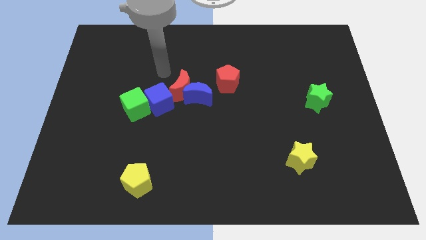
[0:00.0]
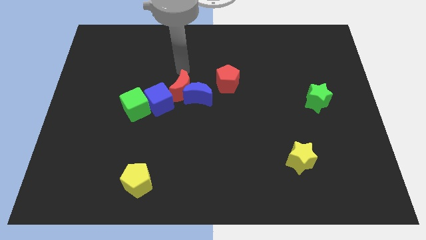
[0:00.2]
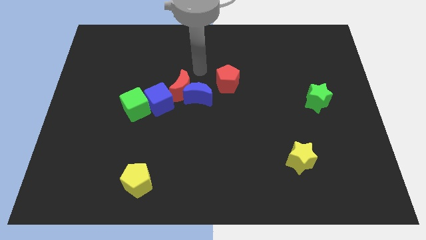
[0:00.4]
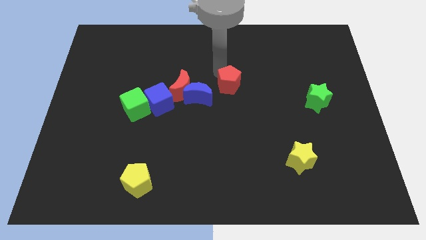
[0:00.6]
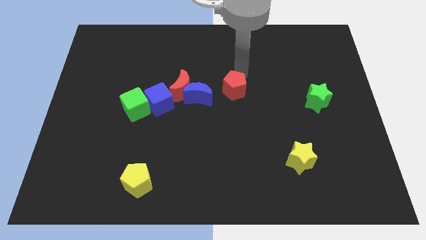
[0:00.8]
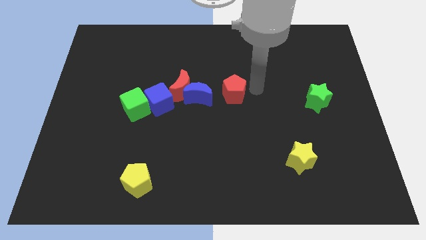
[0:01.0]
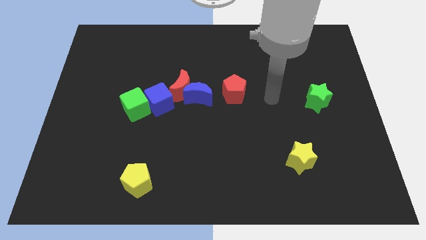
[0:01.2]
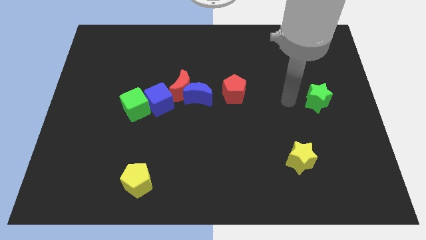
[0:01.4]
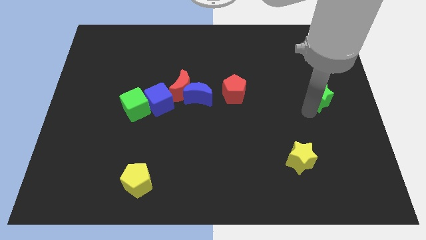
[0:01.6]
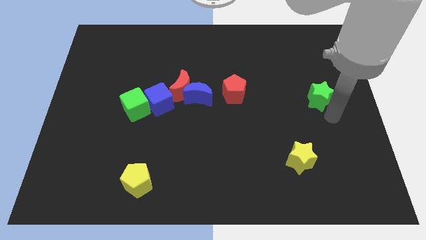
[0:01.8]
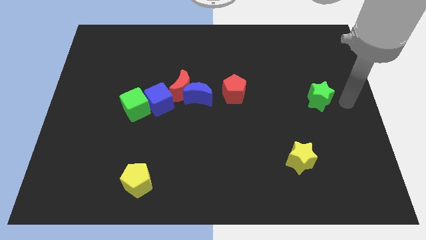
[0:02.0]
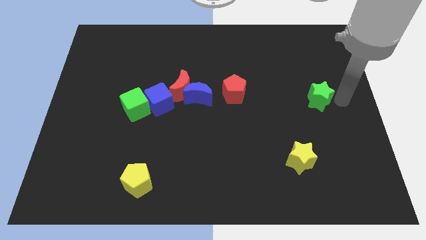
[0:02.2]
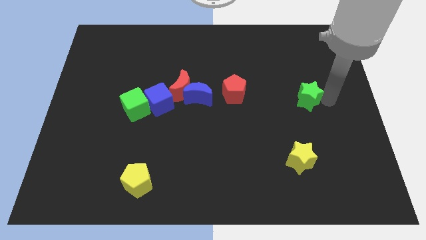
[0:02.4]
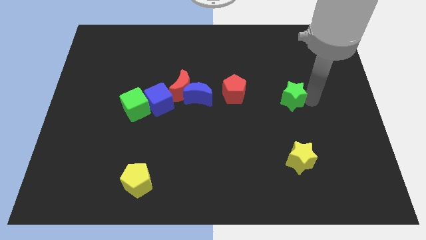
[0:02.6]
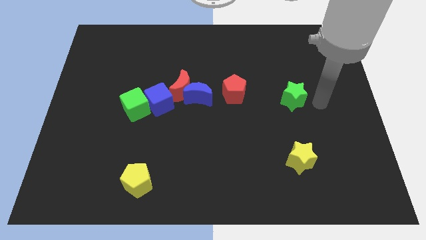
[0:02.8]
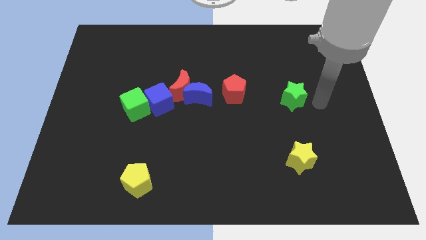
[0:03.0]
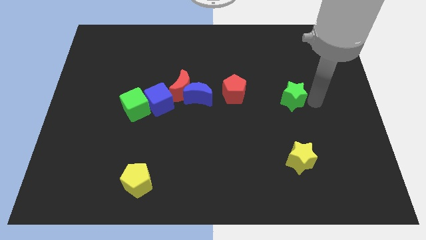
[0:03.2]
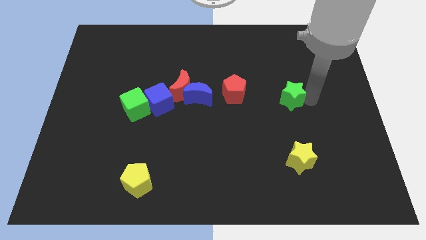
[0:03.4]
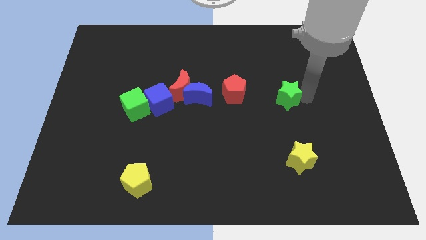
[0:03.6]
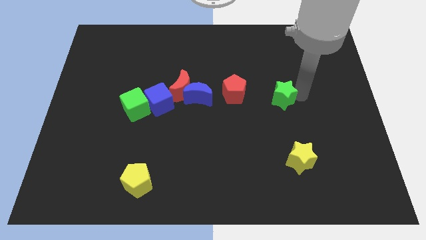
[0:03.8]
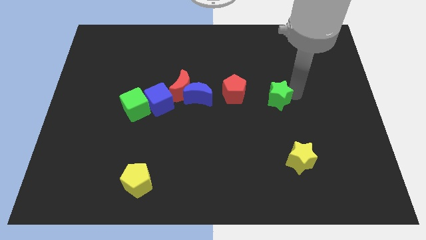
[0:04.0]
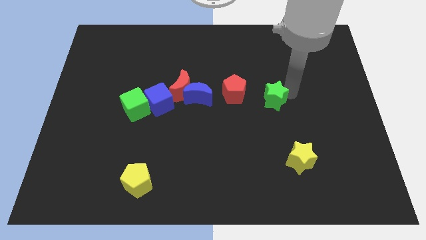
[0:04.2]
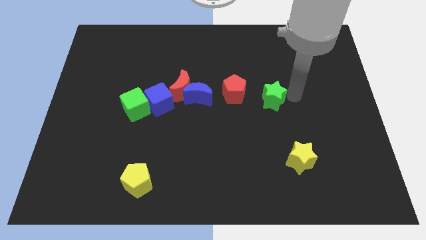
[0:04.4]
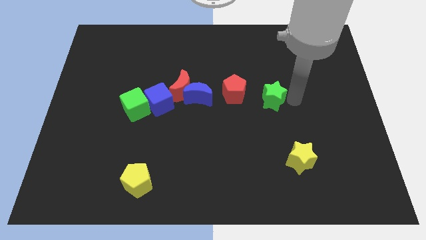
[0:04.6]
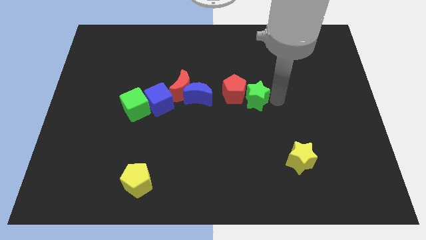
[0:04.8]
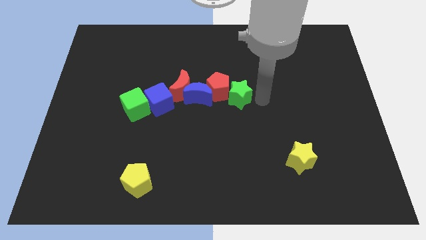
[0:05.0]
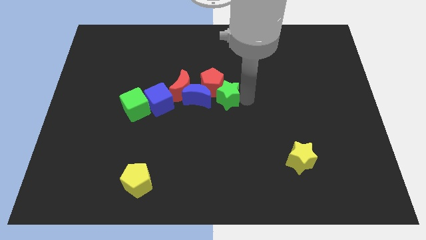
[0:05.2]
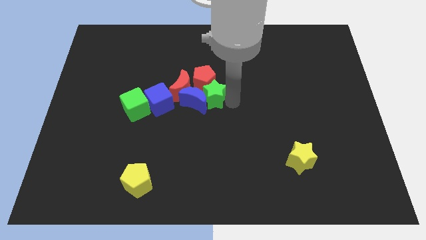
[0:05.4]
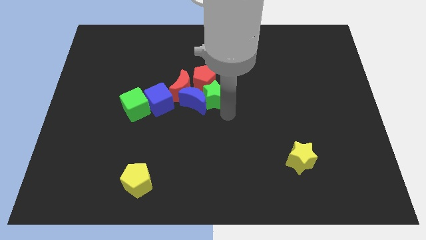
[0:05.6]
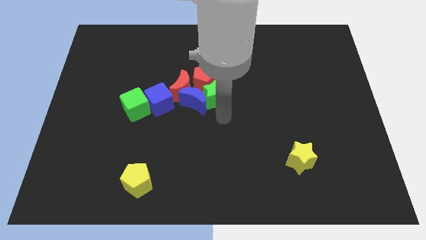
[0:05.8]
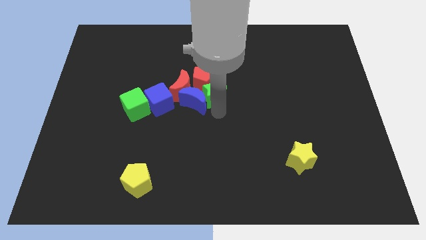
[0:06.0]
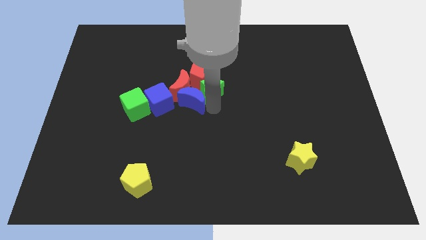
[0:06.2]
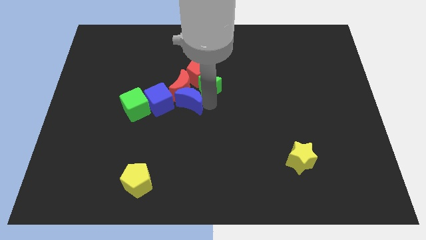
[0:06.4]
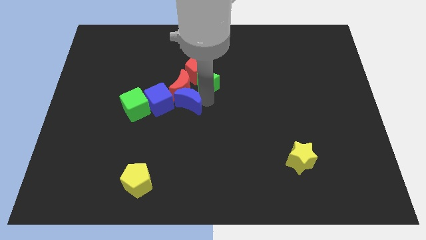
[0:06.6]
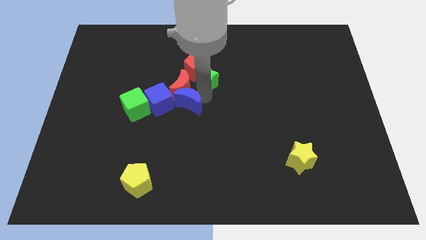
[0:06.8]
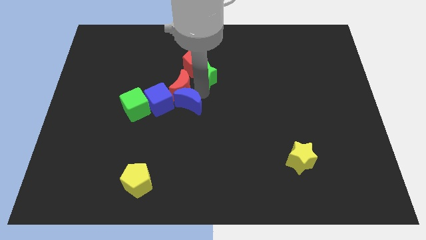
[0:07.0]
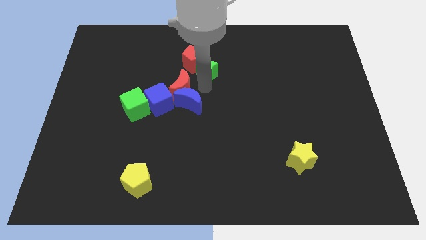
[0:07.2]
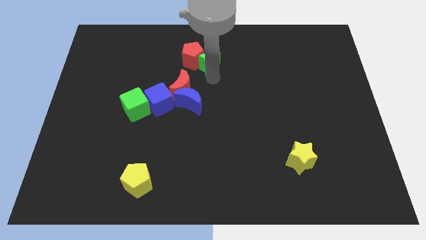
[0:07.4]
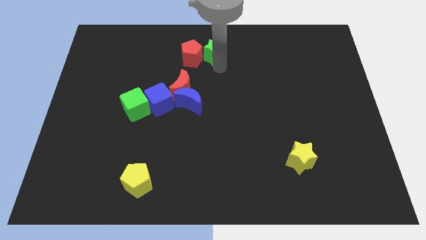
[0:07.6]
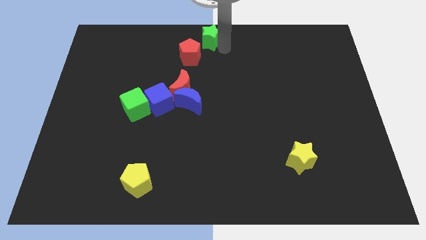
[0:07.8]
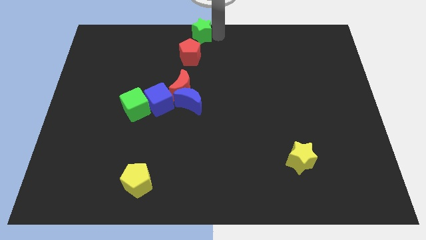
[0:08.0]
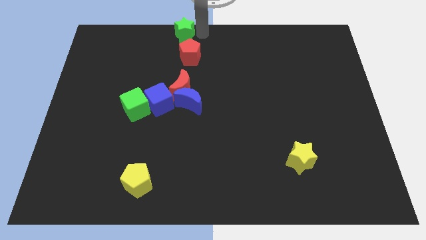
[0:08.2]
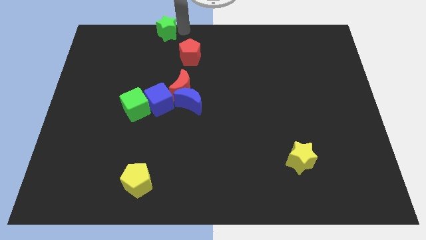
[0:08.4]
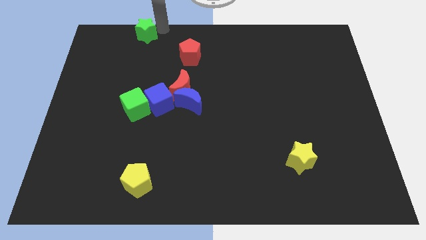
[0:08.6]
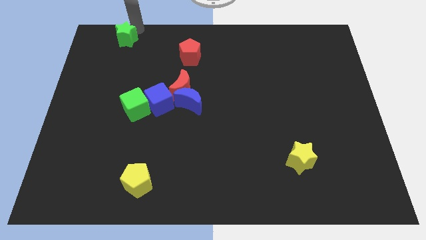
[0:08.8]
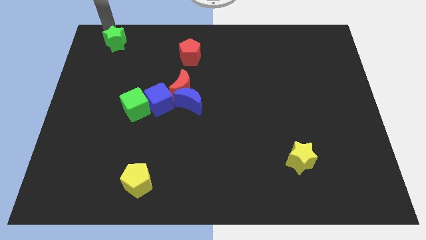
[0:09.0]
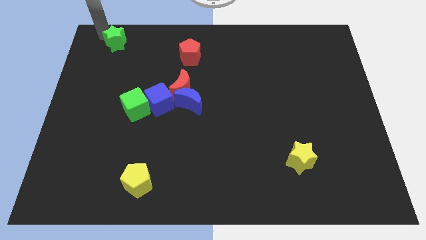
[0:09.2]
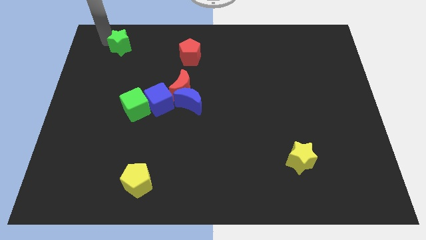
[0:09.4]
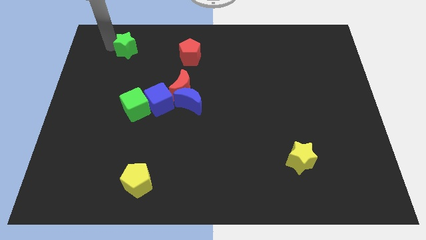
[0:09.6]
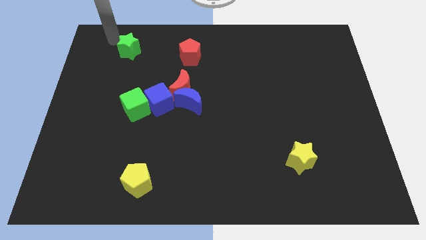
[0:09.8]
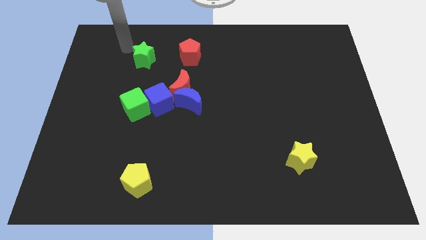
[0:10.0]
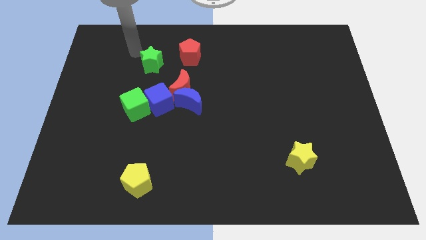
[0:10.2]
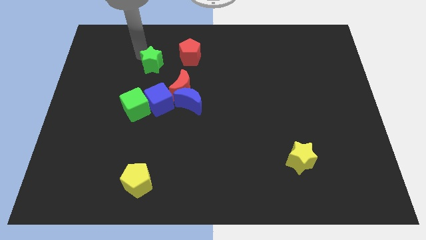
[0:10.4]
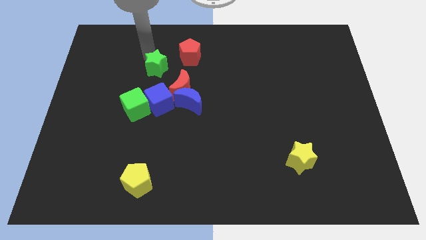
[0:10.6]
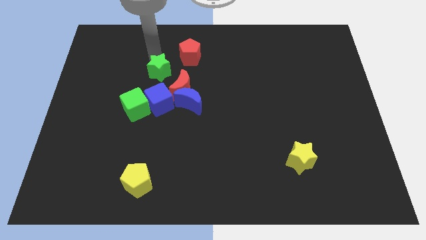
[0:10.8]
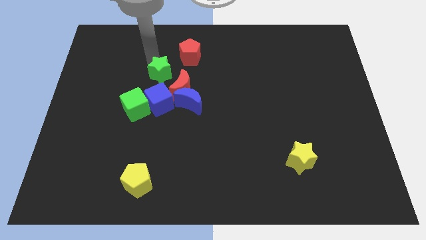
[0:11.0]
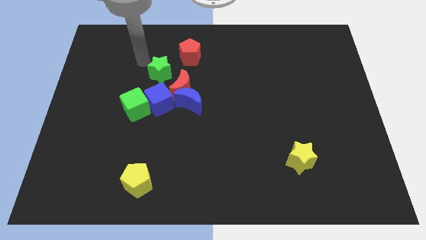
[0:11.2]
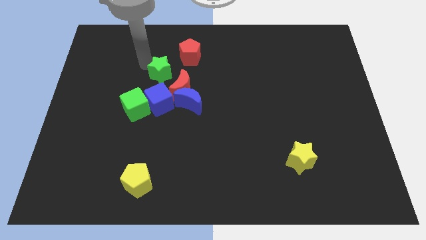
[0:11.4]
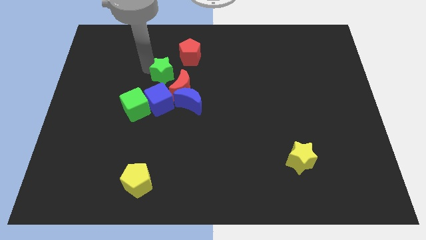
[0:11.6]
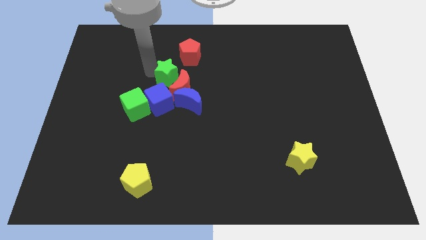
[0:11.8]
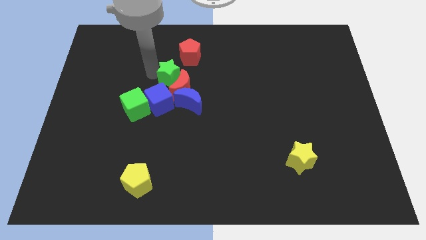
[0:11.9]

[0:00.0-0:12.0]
put the green star diagonally up and to the right of the blue cube
